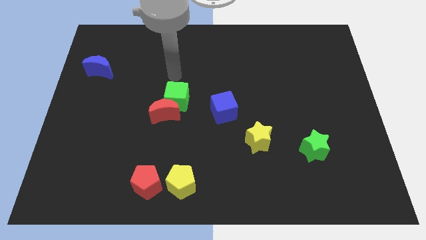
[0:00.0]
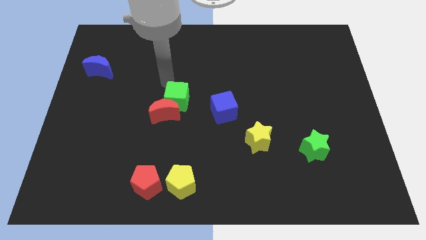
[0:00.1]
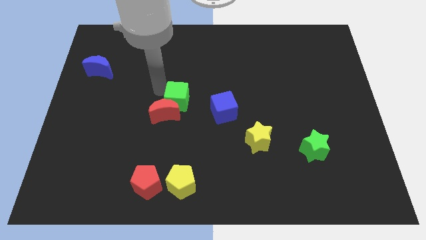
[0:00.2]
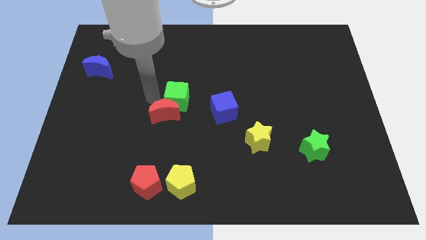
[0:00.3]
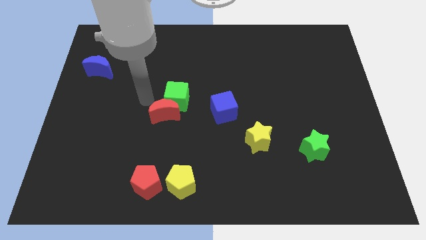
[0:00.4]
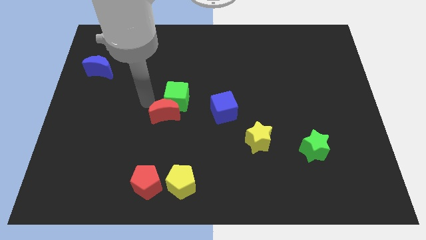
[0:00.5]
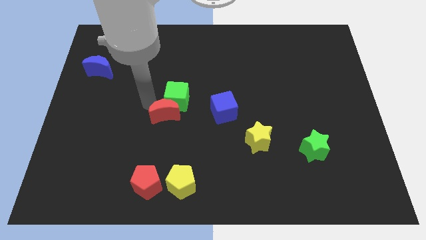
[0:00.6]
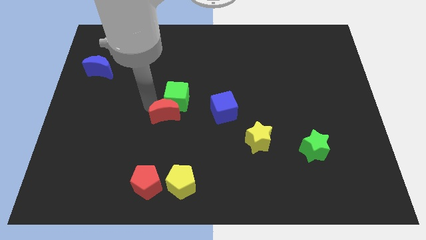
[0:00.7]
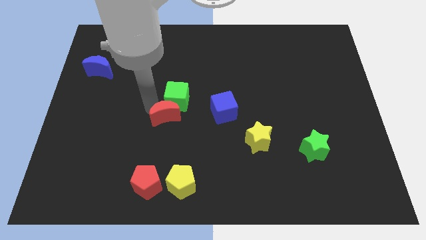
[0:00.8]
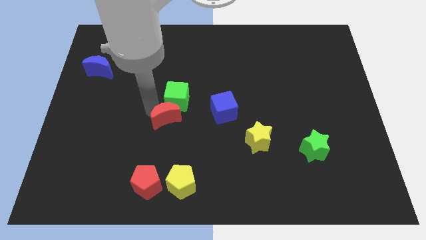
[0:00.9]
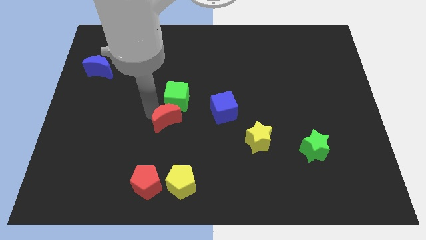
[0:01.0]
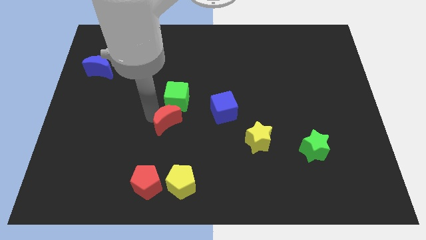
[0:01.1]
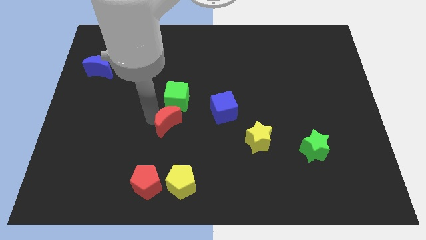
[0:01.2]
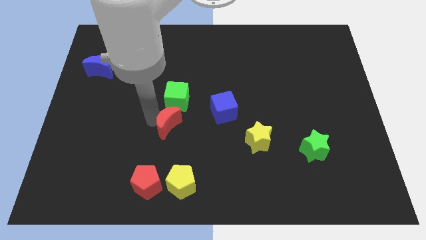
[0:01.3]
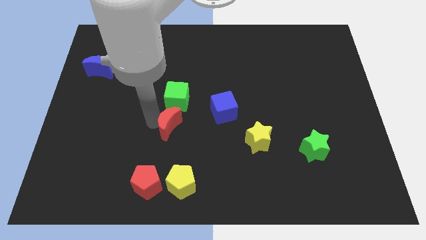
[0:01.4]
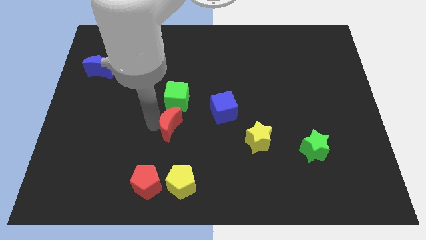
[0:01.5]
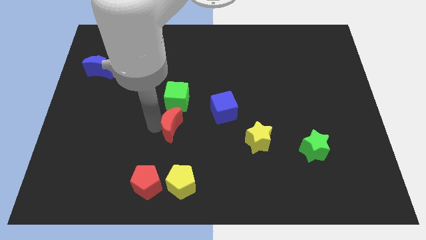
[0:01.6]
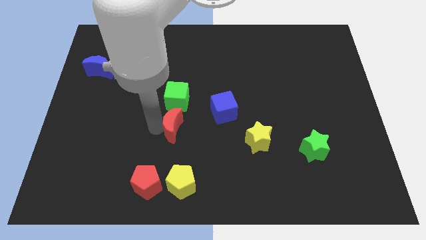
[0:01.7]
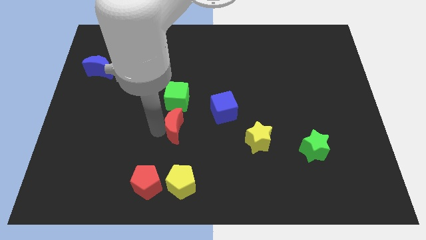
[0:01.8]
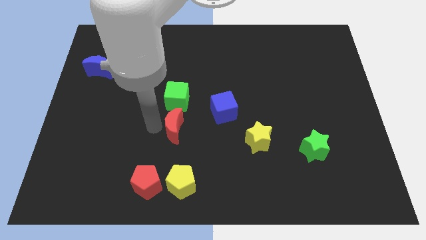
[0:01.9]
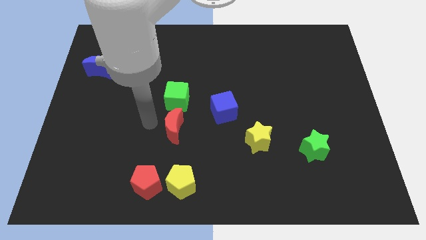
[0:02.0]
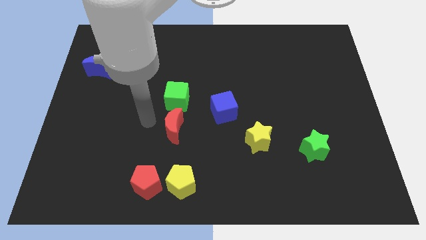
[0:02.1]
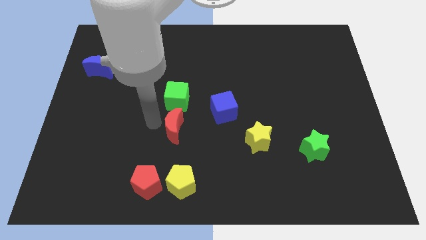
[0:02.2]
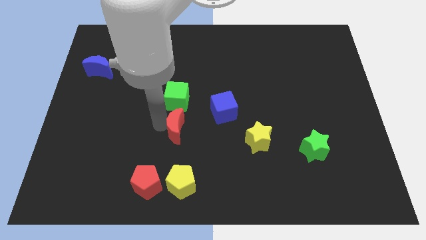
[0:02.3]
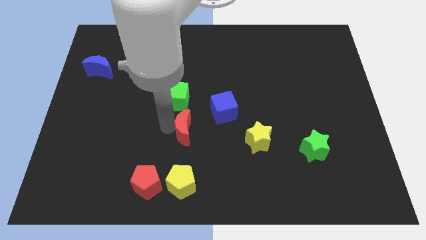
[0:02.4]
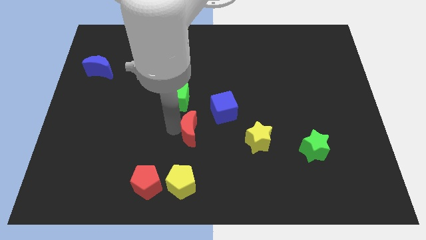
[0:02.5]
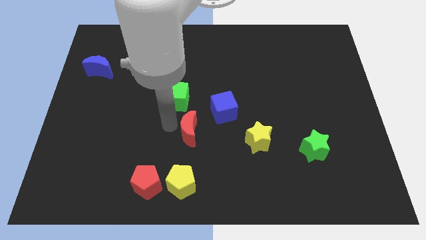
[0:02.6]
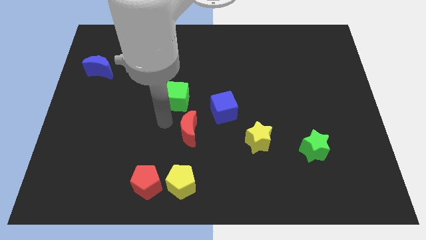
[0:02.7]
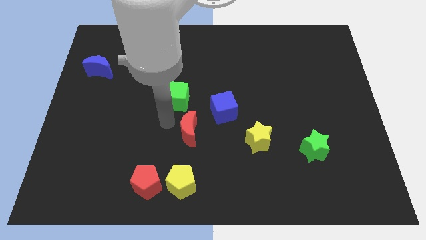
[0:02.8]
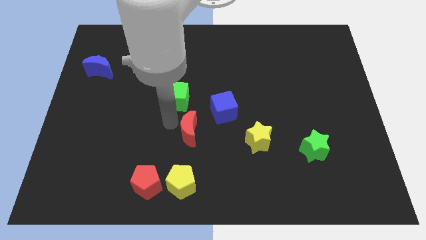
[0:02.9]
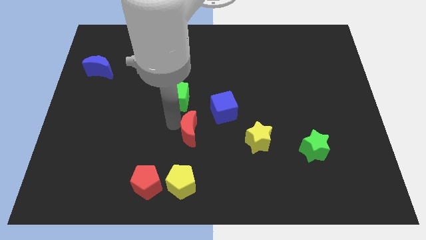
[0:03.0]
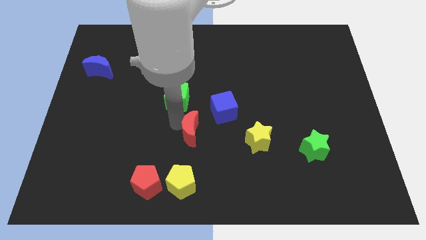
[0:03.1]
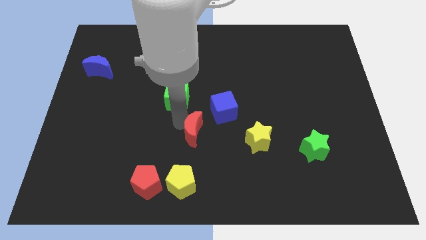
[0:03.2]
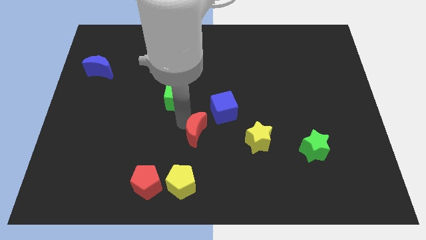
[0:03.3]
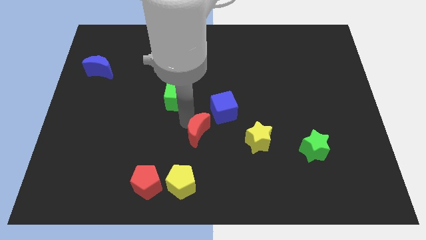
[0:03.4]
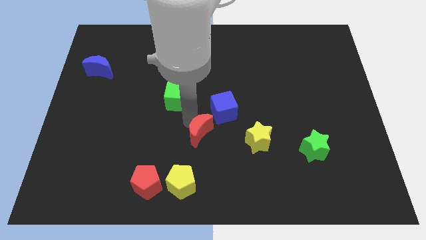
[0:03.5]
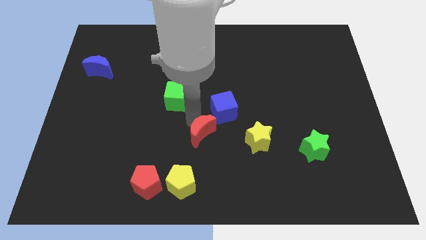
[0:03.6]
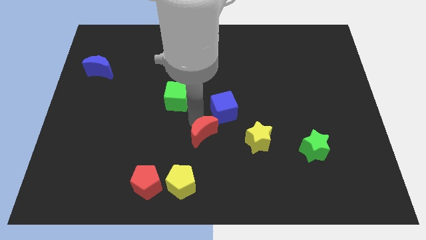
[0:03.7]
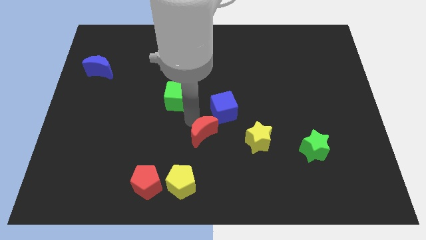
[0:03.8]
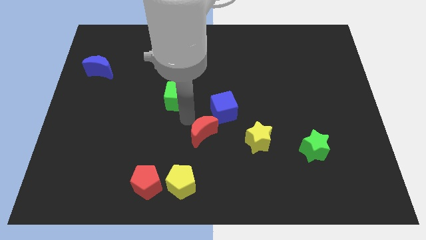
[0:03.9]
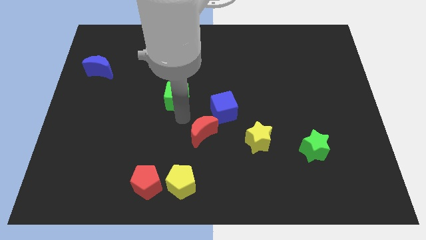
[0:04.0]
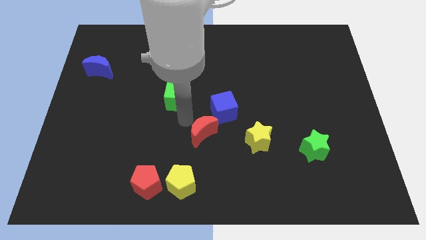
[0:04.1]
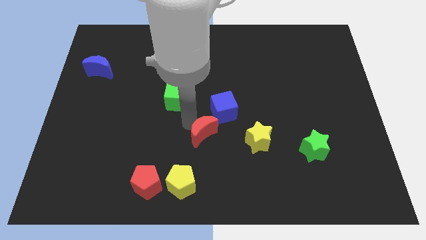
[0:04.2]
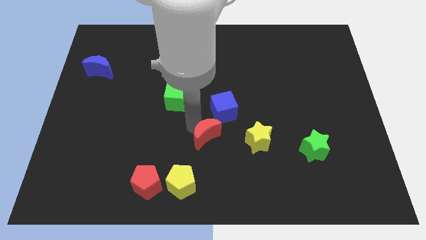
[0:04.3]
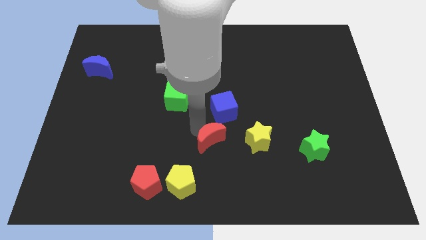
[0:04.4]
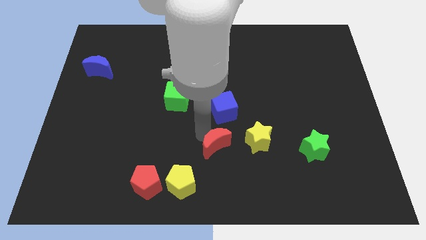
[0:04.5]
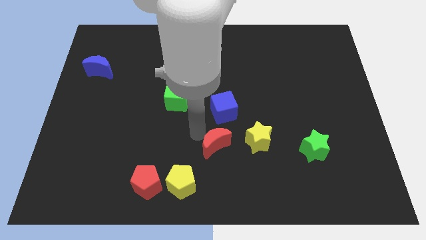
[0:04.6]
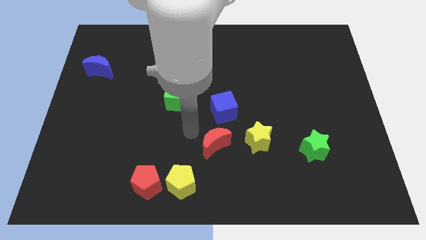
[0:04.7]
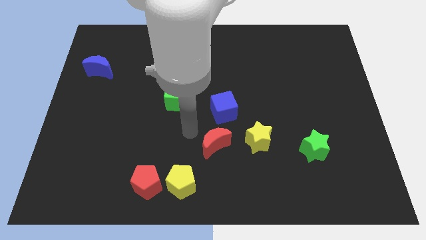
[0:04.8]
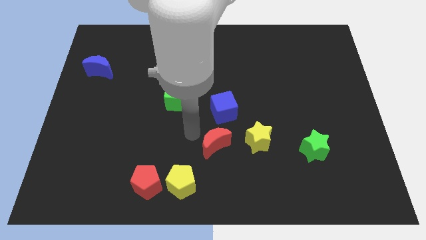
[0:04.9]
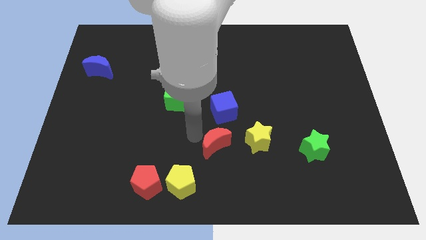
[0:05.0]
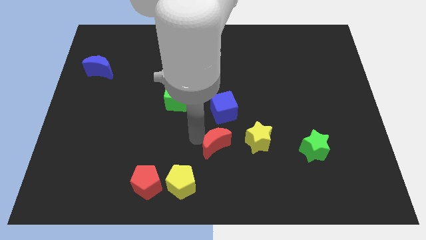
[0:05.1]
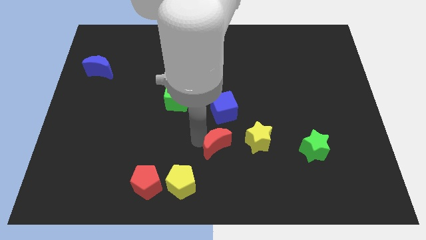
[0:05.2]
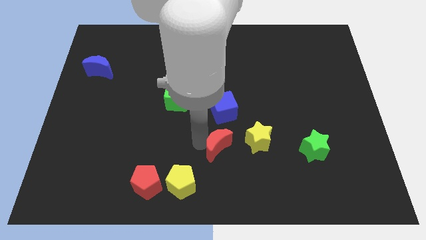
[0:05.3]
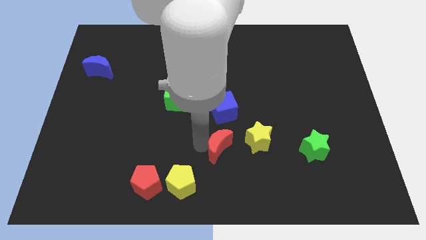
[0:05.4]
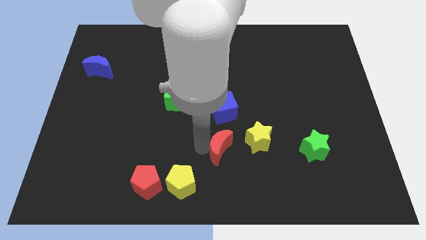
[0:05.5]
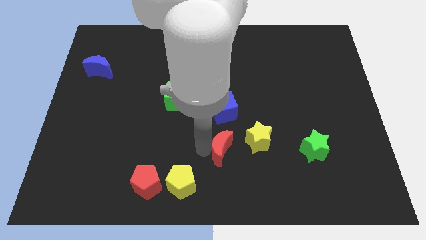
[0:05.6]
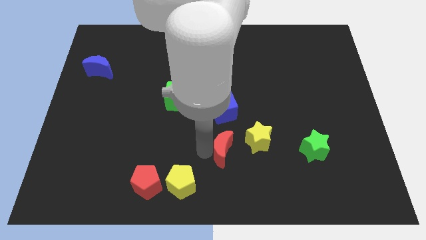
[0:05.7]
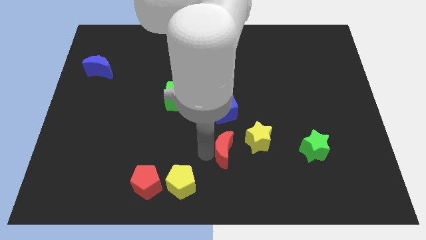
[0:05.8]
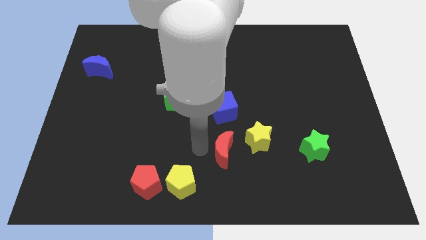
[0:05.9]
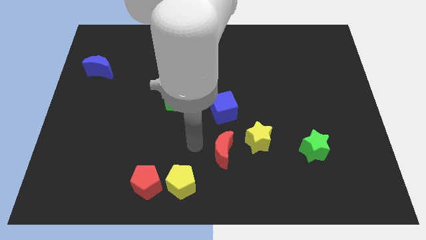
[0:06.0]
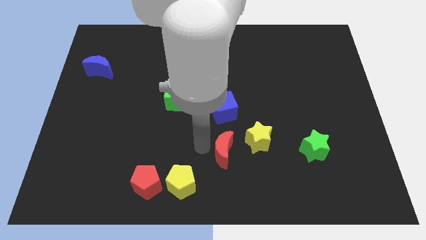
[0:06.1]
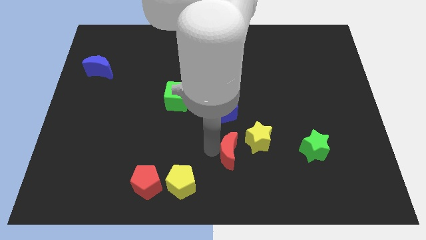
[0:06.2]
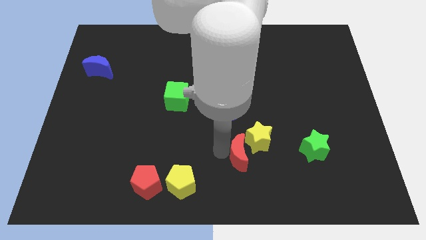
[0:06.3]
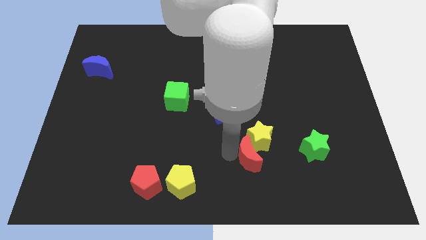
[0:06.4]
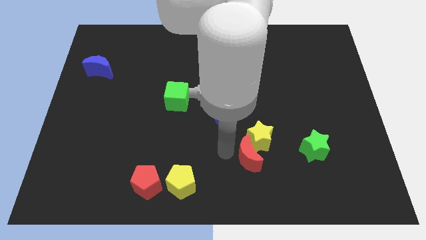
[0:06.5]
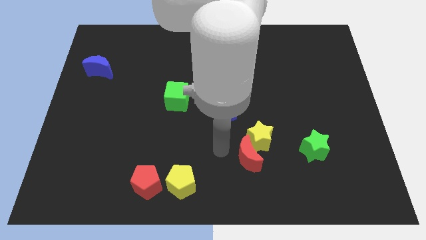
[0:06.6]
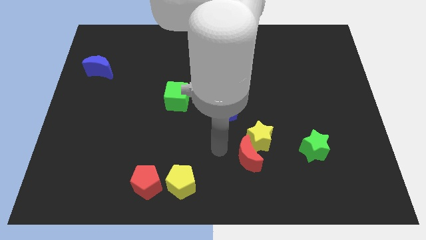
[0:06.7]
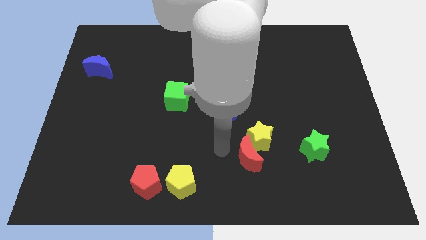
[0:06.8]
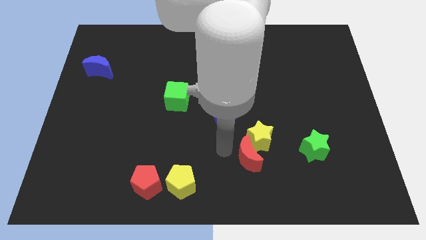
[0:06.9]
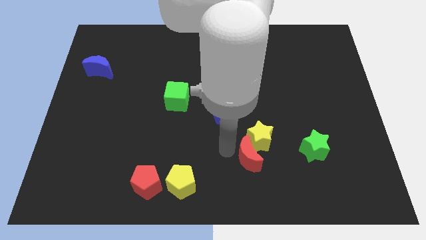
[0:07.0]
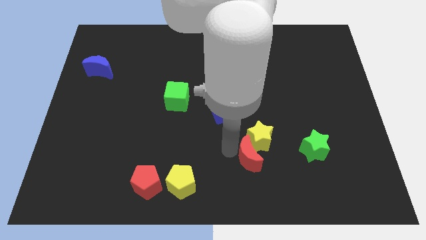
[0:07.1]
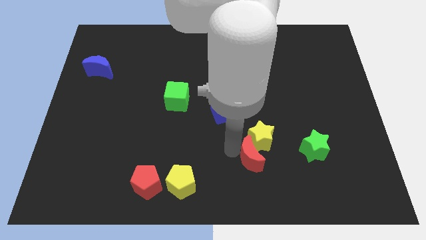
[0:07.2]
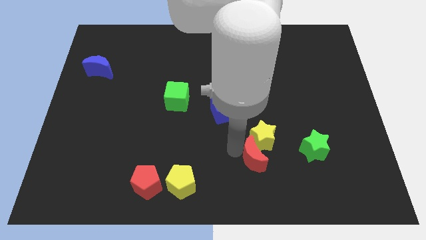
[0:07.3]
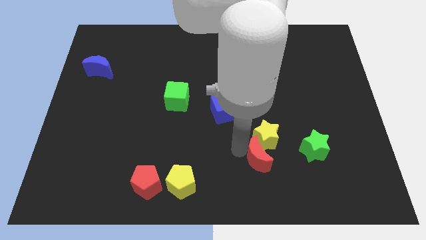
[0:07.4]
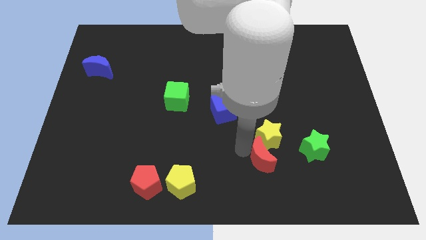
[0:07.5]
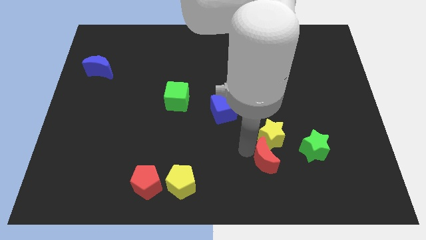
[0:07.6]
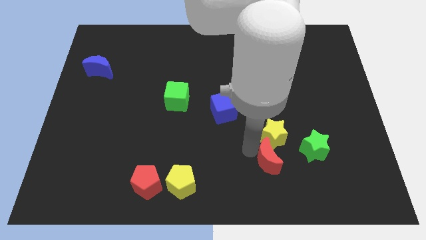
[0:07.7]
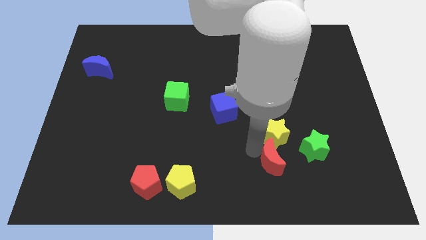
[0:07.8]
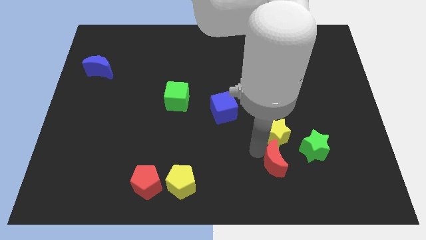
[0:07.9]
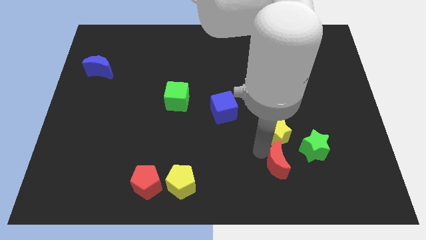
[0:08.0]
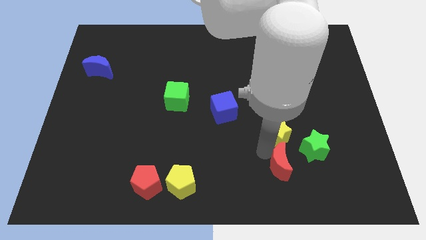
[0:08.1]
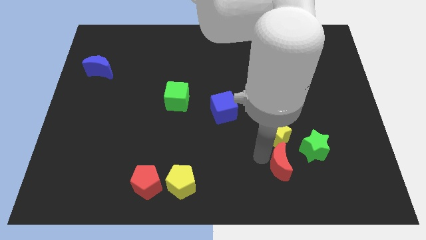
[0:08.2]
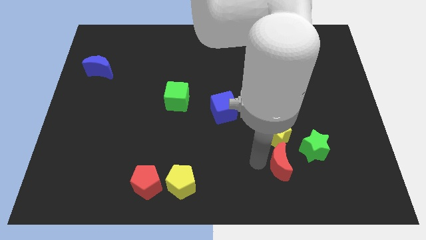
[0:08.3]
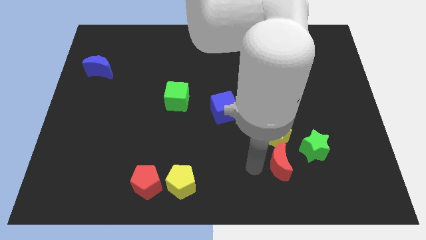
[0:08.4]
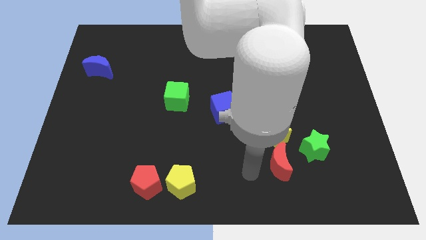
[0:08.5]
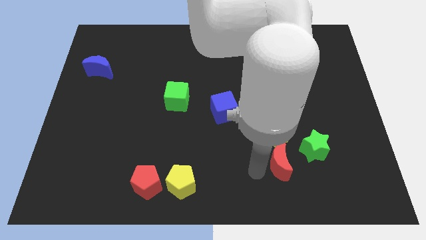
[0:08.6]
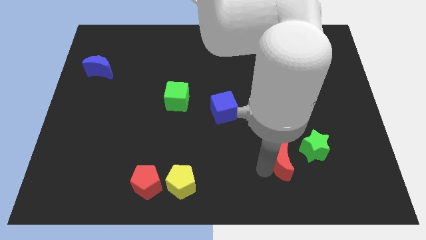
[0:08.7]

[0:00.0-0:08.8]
slide the red moon to the bottom right side of the yellow star
